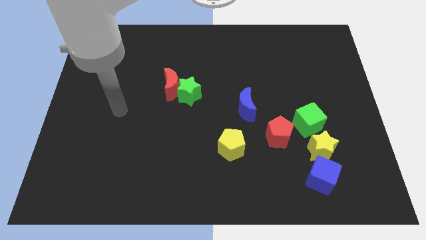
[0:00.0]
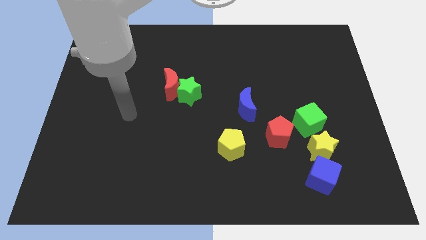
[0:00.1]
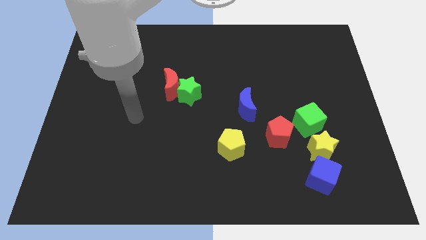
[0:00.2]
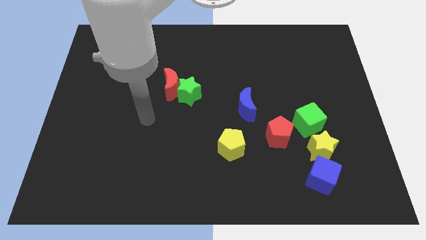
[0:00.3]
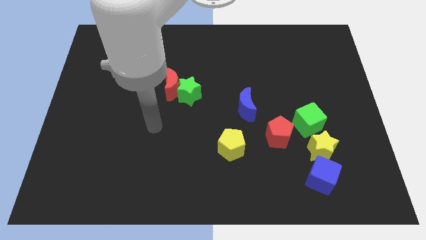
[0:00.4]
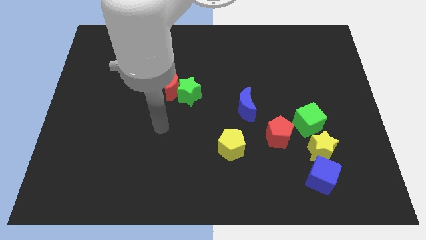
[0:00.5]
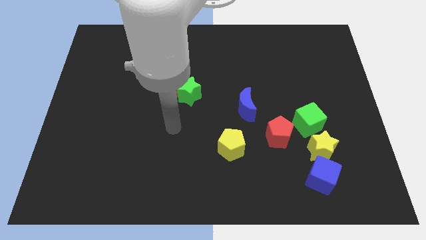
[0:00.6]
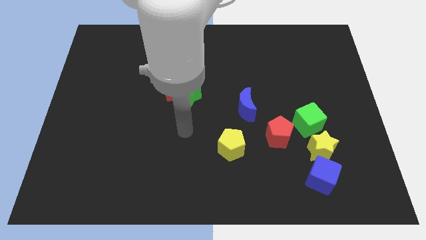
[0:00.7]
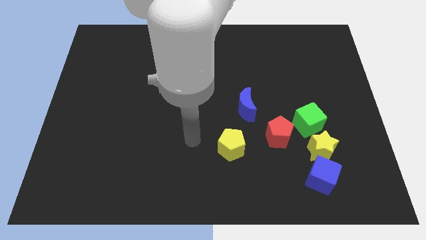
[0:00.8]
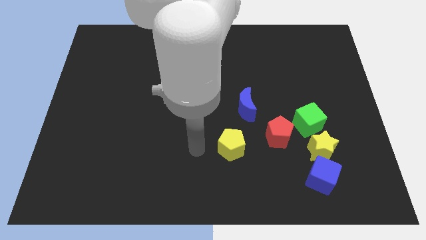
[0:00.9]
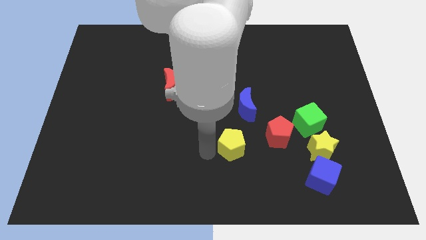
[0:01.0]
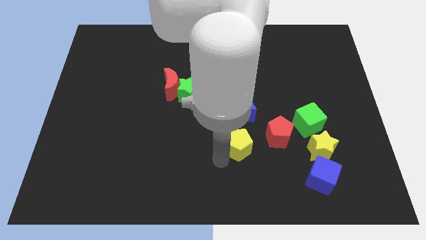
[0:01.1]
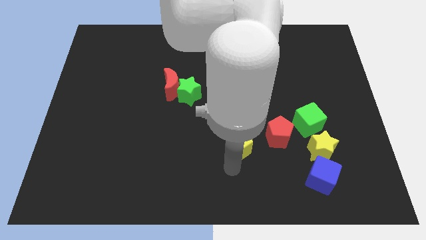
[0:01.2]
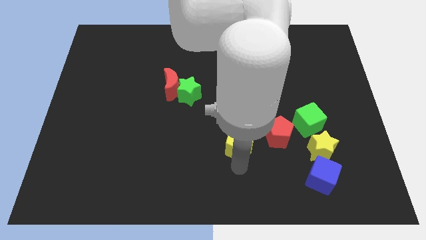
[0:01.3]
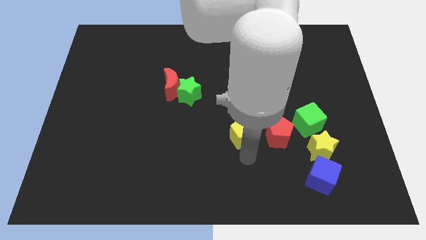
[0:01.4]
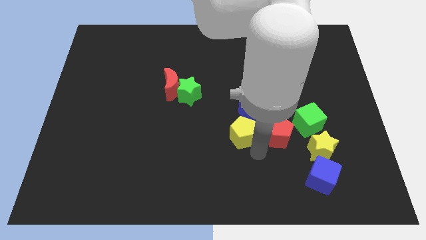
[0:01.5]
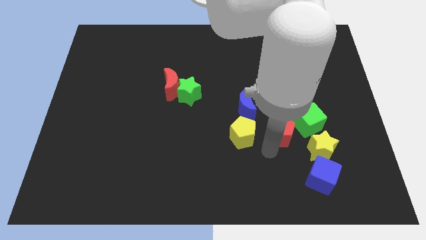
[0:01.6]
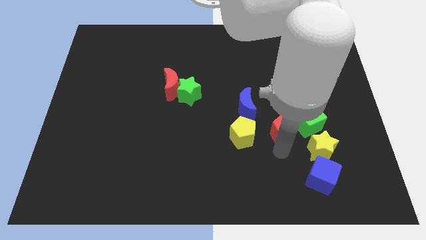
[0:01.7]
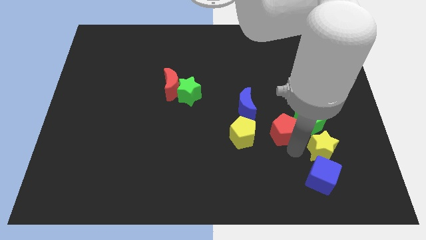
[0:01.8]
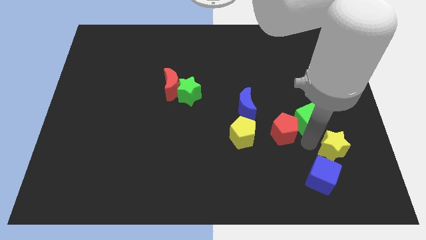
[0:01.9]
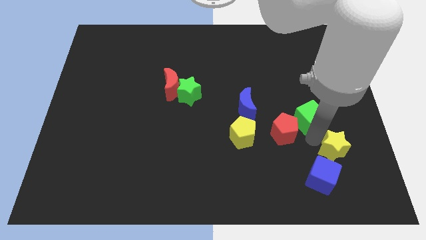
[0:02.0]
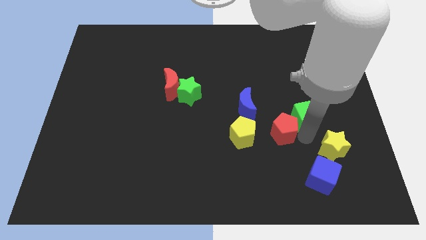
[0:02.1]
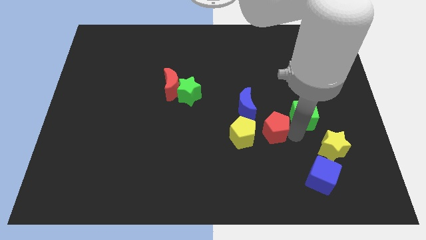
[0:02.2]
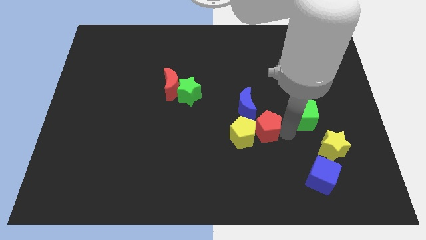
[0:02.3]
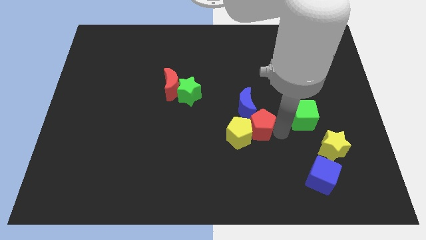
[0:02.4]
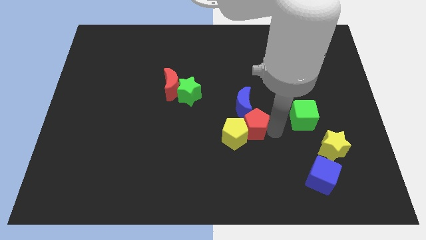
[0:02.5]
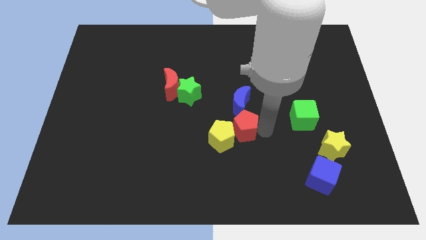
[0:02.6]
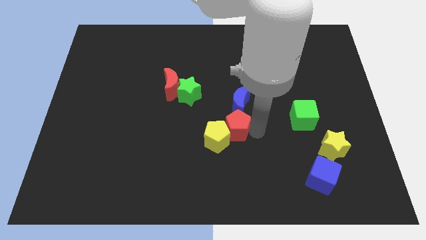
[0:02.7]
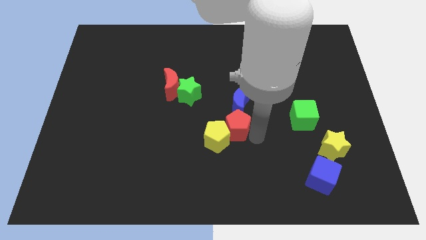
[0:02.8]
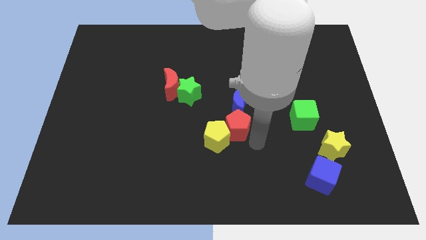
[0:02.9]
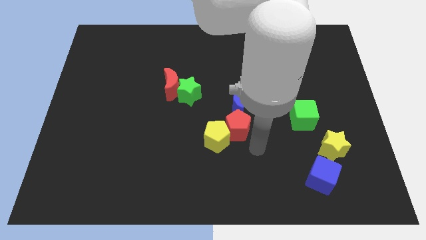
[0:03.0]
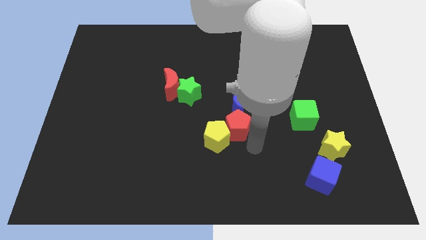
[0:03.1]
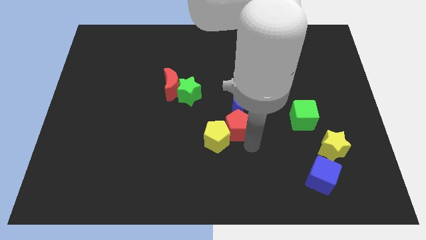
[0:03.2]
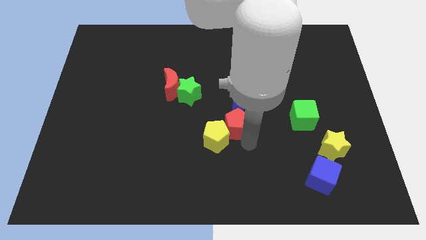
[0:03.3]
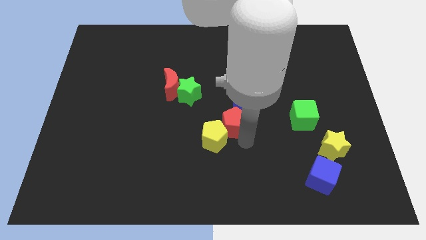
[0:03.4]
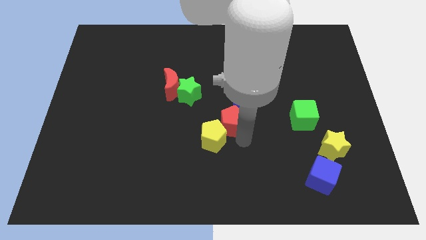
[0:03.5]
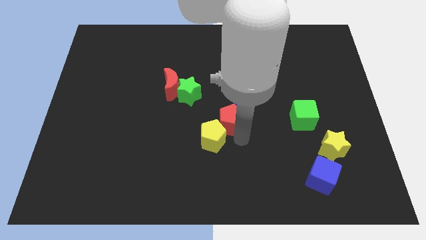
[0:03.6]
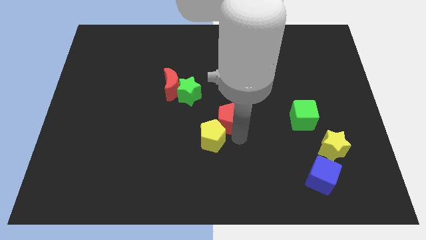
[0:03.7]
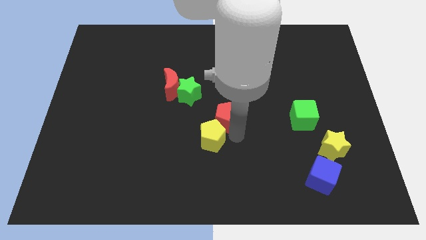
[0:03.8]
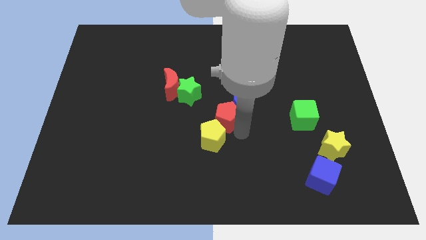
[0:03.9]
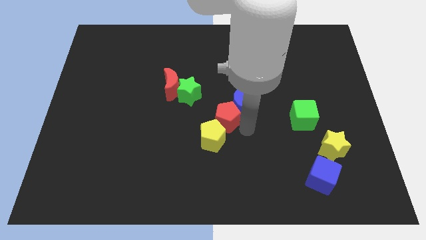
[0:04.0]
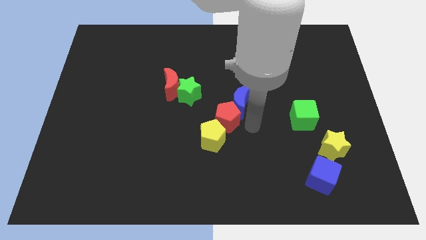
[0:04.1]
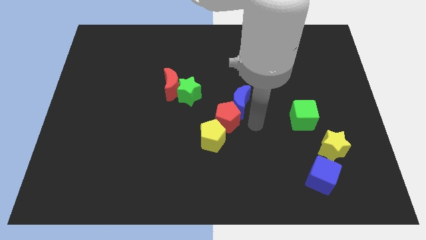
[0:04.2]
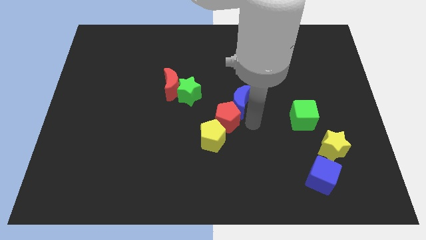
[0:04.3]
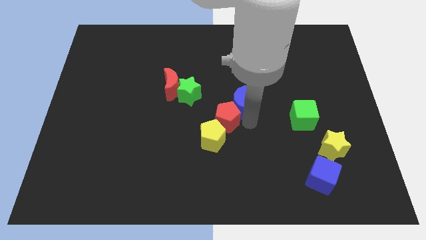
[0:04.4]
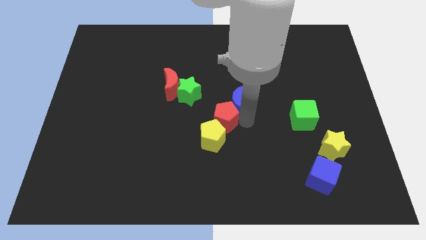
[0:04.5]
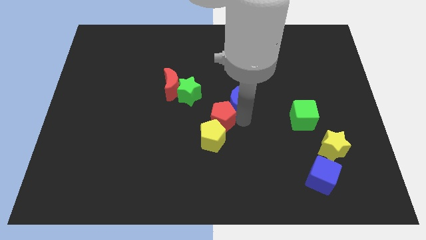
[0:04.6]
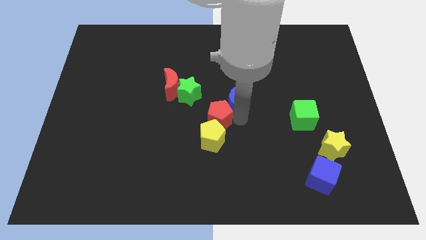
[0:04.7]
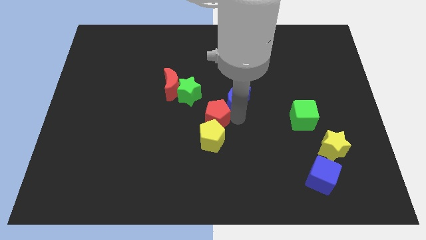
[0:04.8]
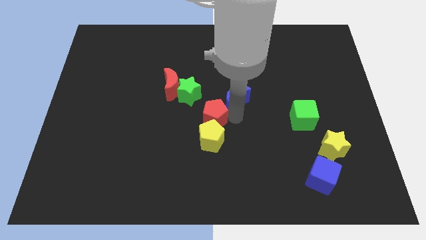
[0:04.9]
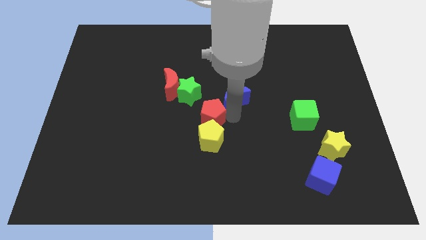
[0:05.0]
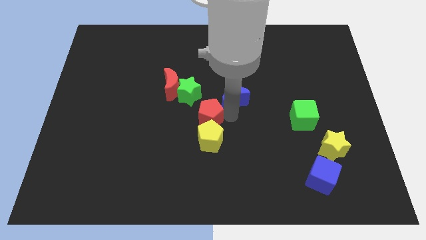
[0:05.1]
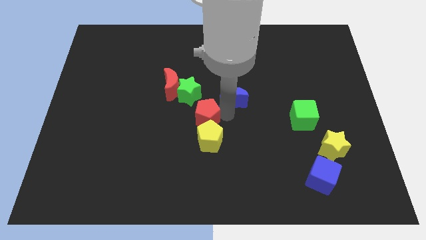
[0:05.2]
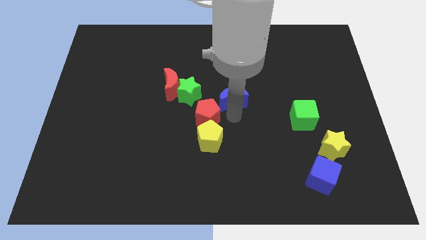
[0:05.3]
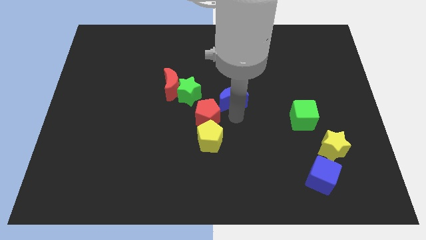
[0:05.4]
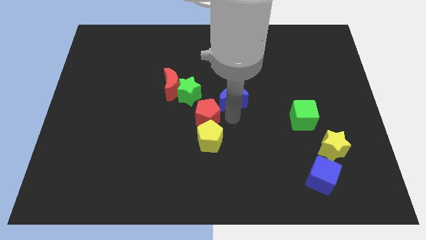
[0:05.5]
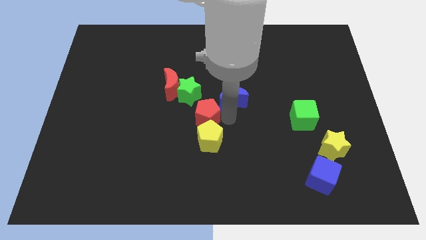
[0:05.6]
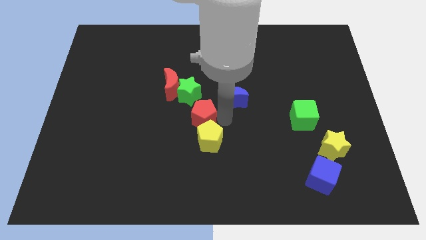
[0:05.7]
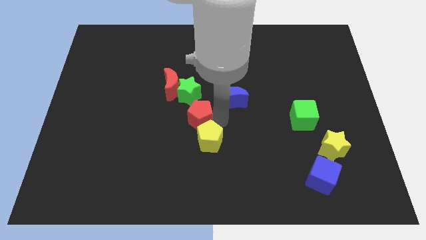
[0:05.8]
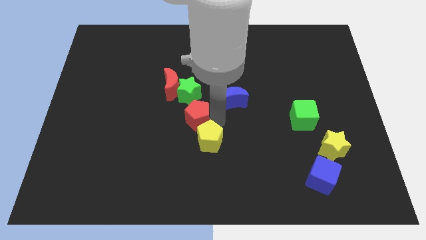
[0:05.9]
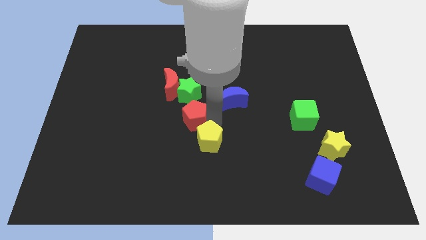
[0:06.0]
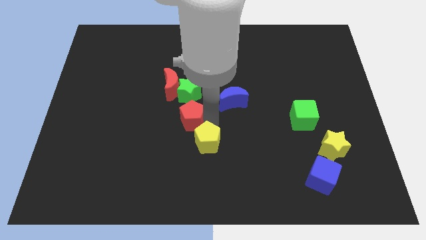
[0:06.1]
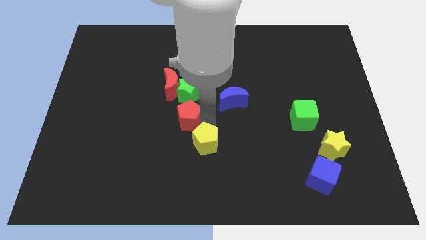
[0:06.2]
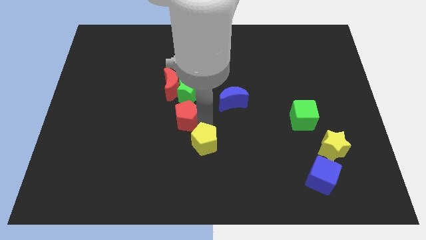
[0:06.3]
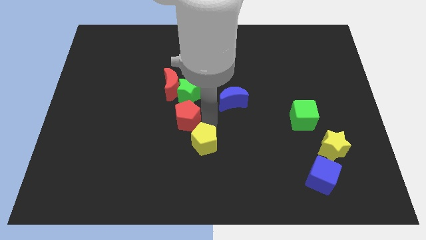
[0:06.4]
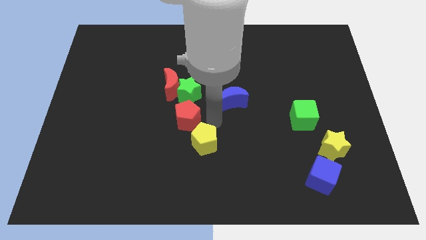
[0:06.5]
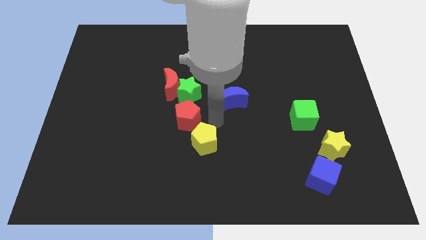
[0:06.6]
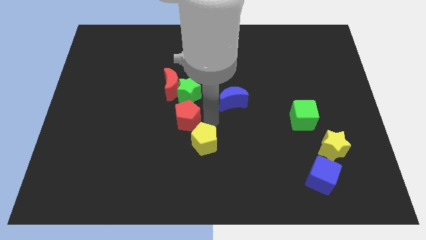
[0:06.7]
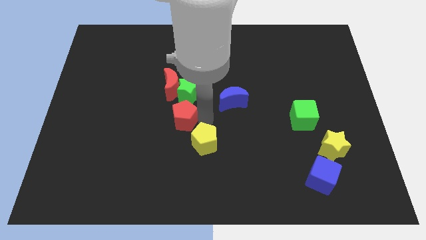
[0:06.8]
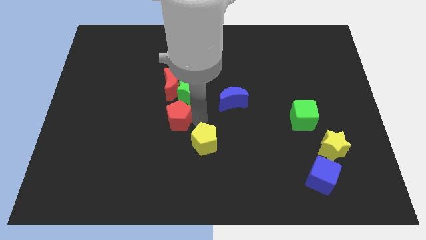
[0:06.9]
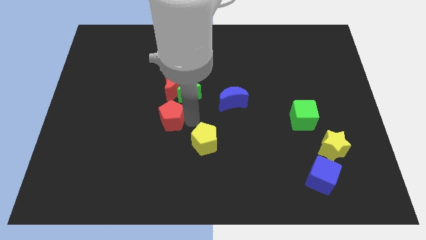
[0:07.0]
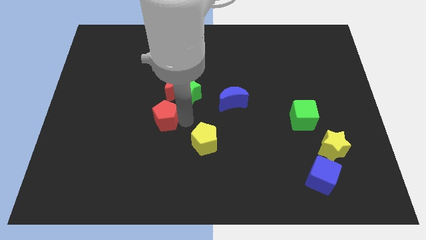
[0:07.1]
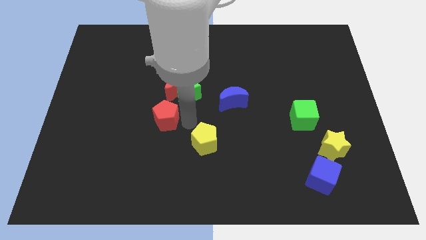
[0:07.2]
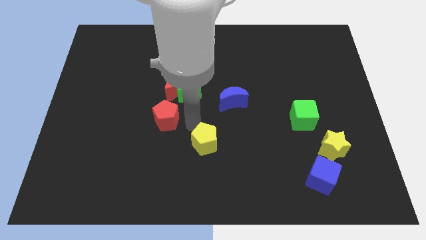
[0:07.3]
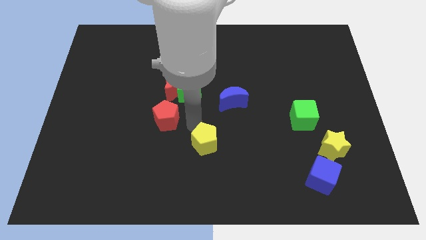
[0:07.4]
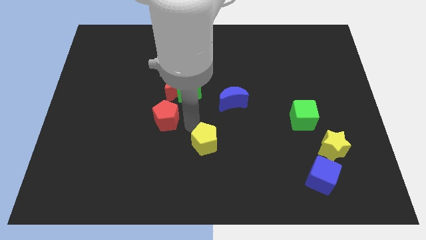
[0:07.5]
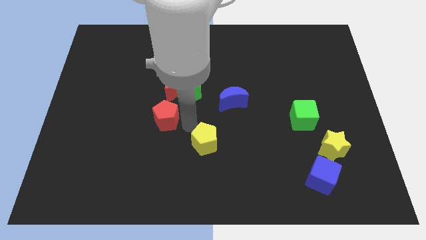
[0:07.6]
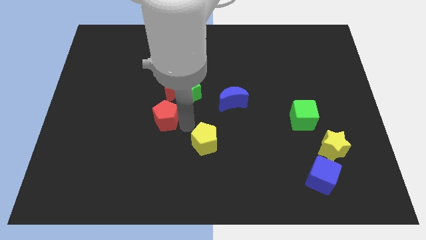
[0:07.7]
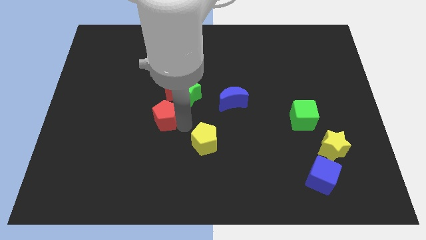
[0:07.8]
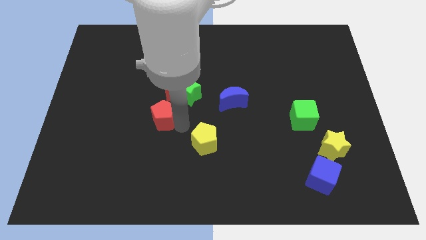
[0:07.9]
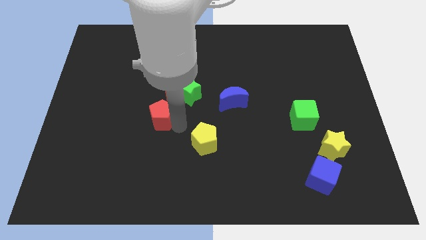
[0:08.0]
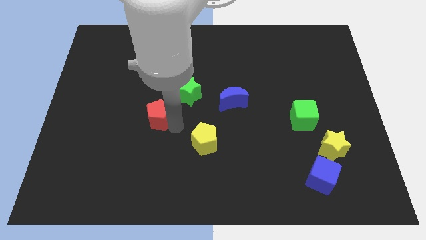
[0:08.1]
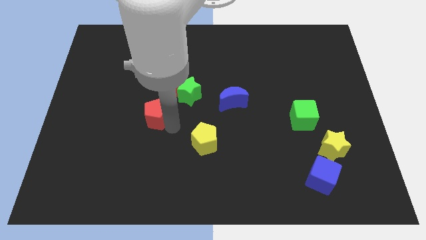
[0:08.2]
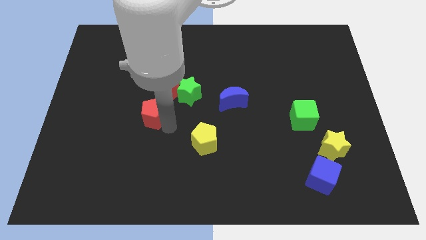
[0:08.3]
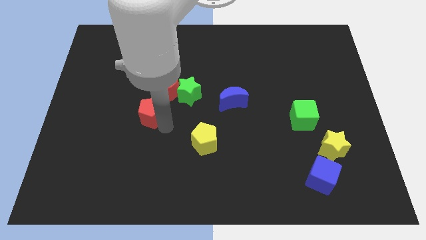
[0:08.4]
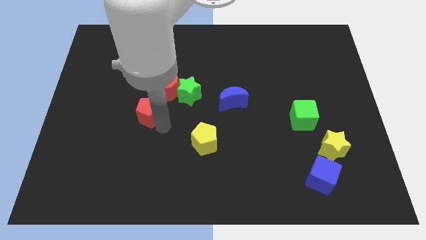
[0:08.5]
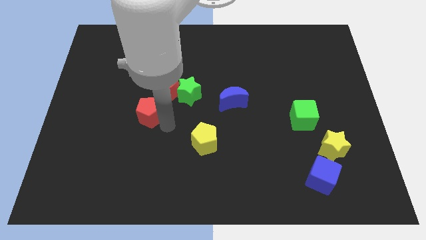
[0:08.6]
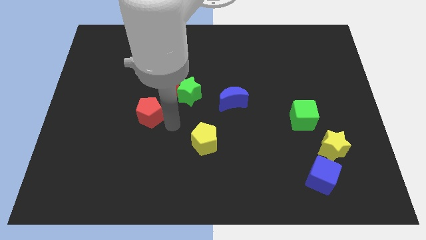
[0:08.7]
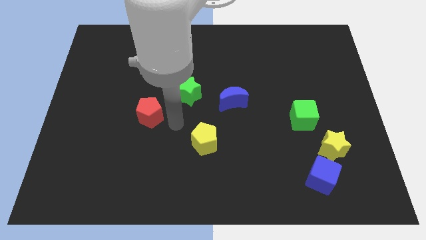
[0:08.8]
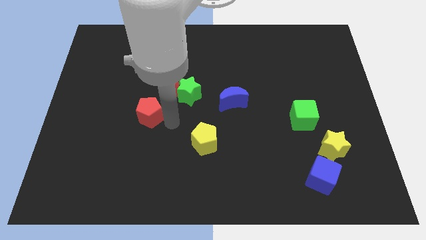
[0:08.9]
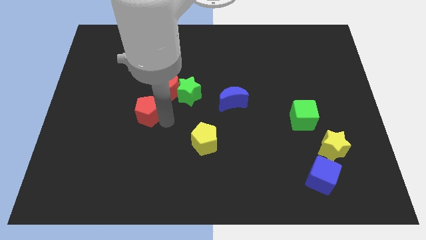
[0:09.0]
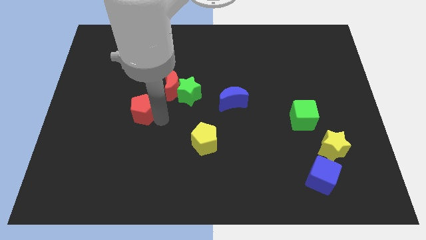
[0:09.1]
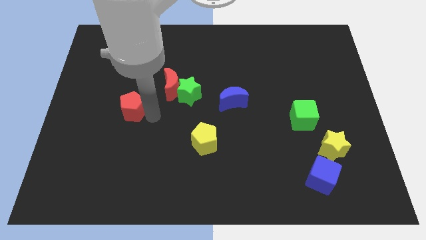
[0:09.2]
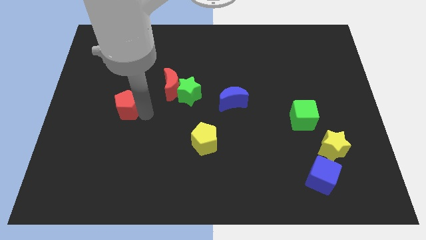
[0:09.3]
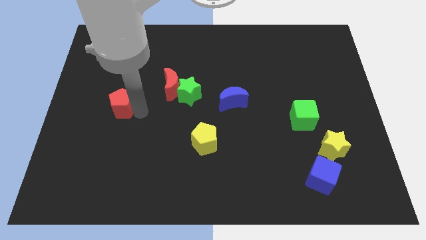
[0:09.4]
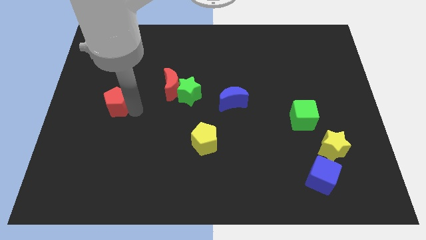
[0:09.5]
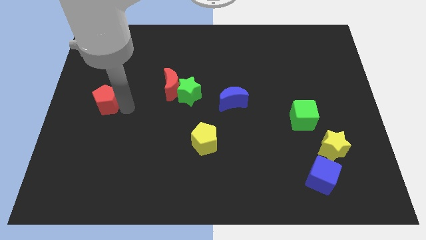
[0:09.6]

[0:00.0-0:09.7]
move the red pentagon to the center left
